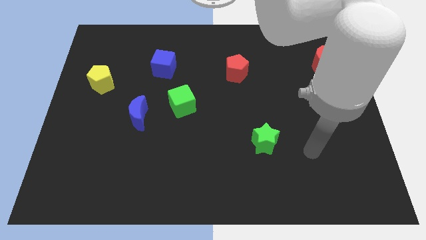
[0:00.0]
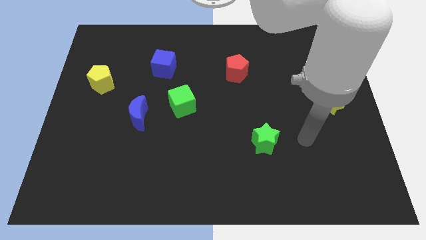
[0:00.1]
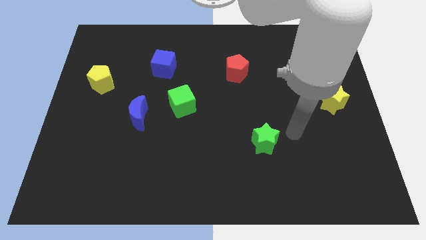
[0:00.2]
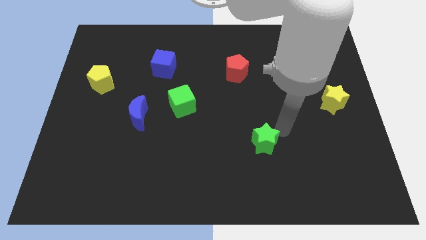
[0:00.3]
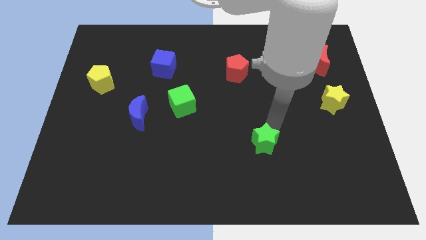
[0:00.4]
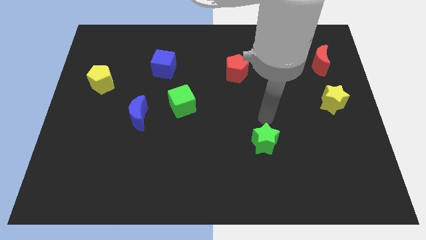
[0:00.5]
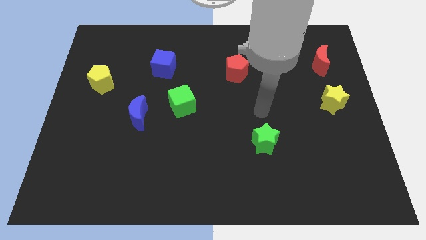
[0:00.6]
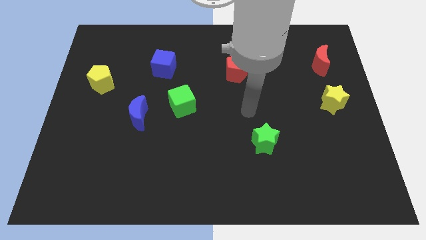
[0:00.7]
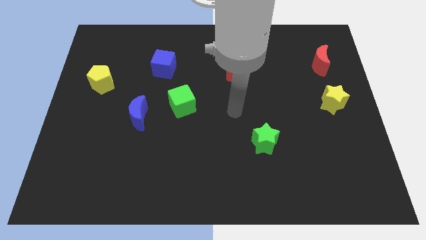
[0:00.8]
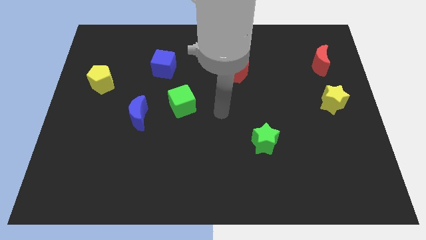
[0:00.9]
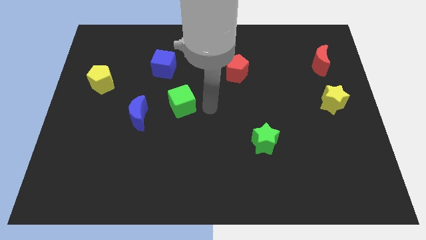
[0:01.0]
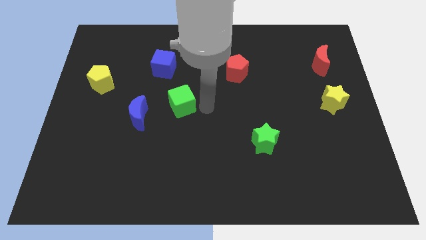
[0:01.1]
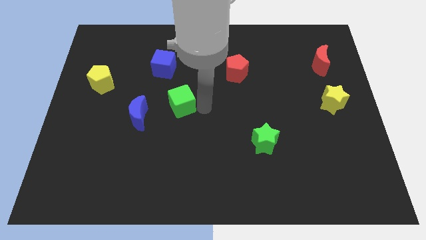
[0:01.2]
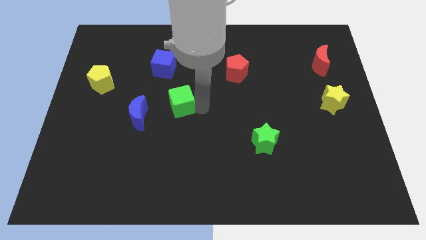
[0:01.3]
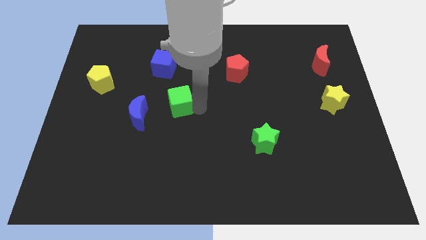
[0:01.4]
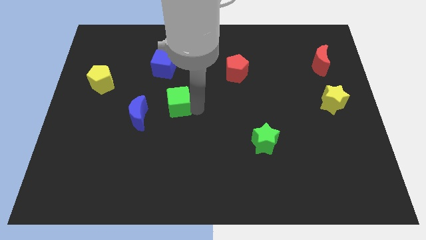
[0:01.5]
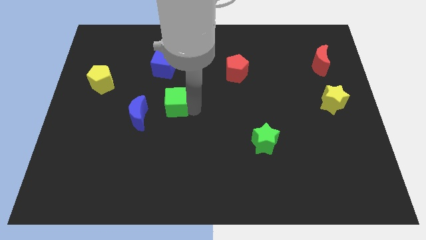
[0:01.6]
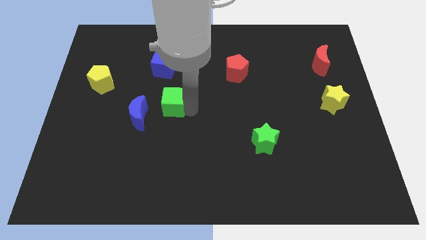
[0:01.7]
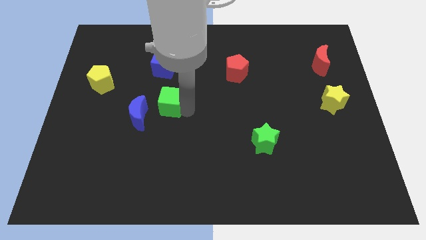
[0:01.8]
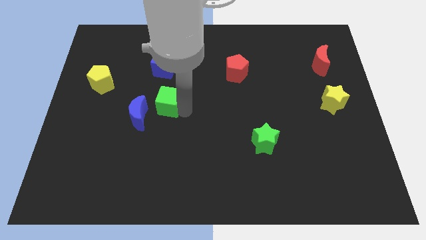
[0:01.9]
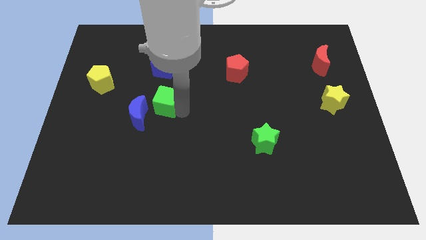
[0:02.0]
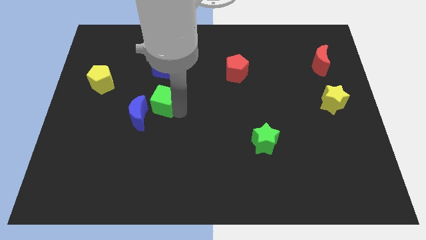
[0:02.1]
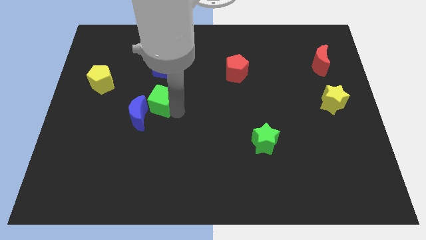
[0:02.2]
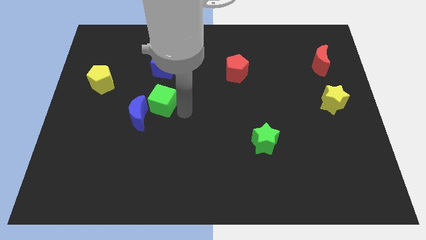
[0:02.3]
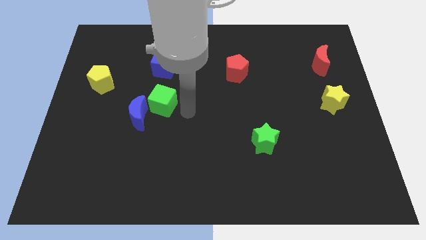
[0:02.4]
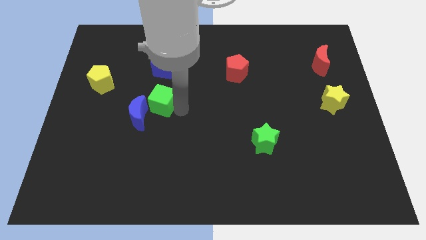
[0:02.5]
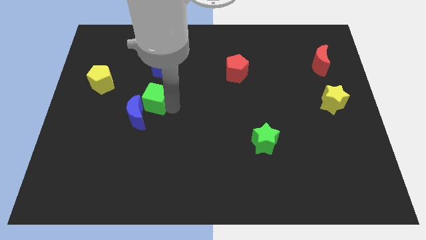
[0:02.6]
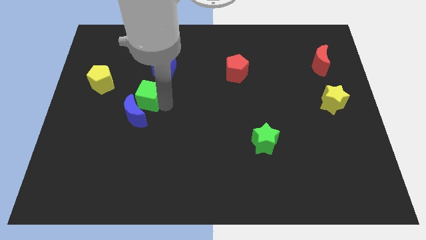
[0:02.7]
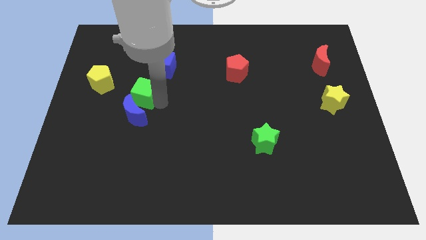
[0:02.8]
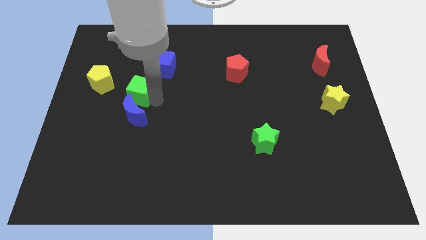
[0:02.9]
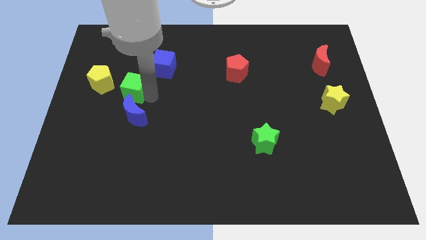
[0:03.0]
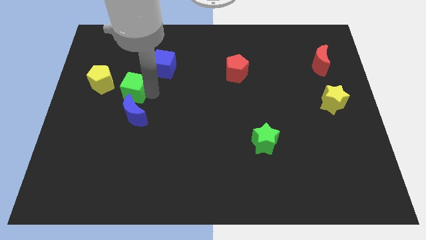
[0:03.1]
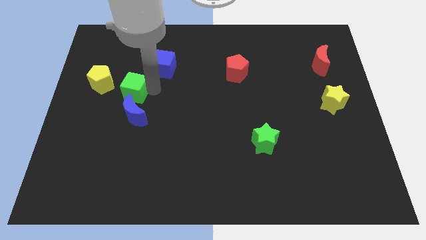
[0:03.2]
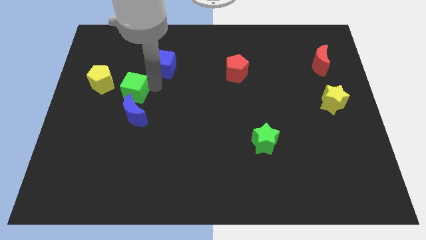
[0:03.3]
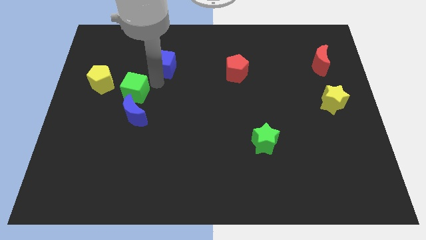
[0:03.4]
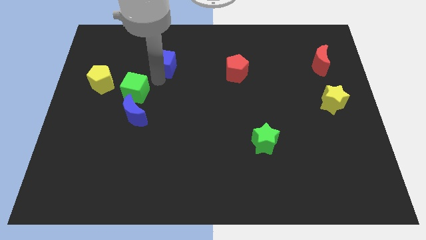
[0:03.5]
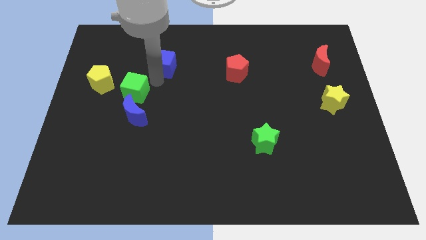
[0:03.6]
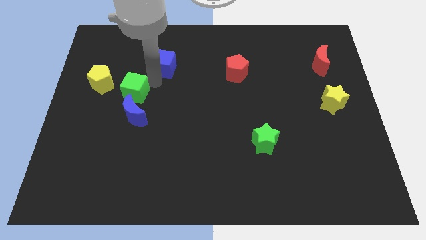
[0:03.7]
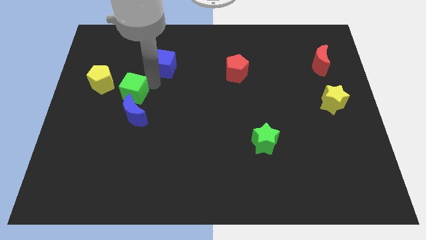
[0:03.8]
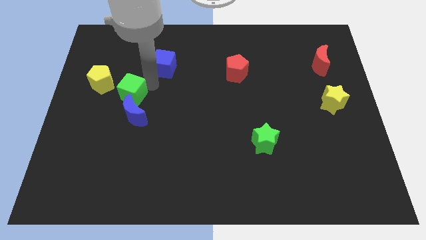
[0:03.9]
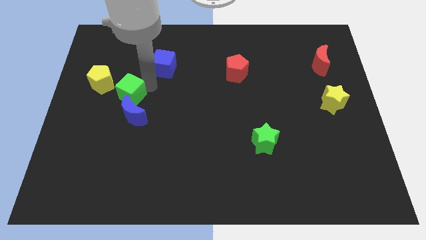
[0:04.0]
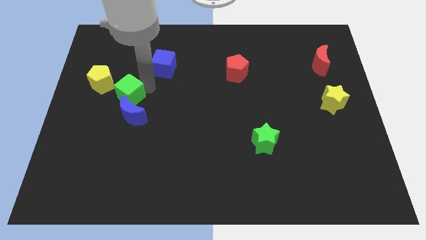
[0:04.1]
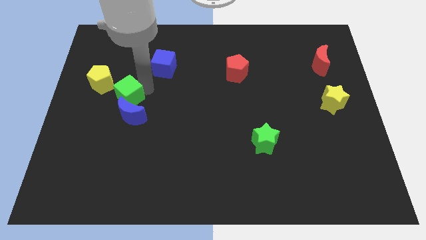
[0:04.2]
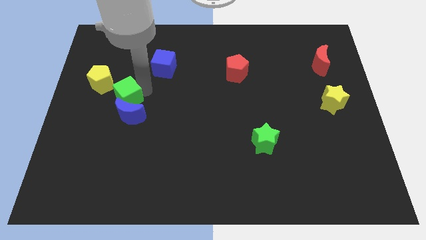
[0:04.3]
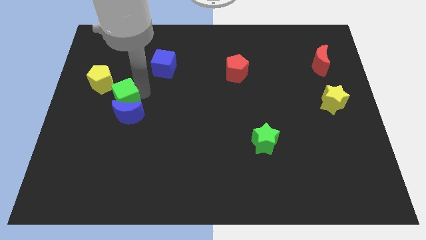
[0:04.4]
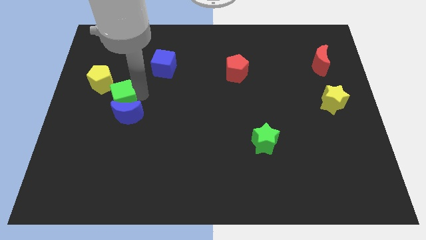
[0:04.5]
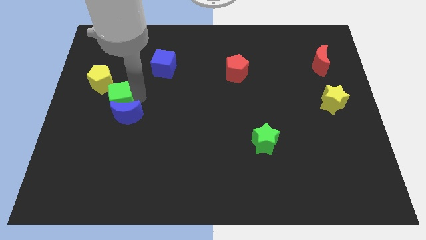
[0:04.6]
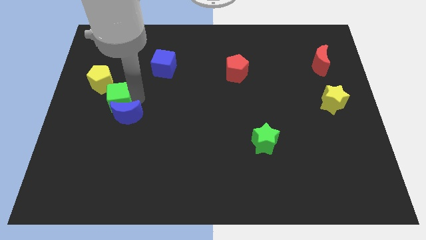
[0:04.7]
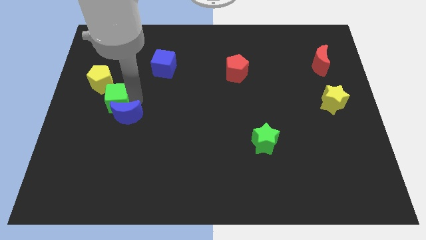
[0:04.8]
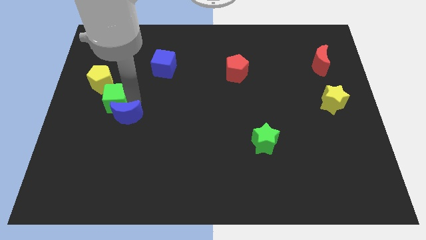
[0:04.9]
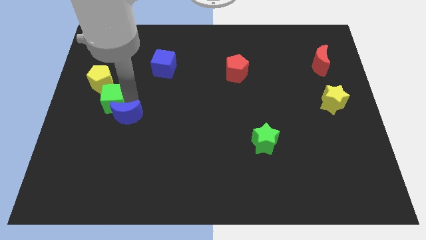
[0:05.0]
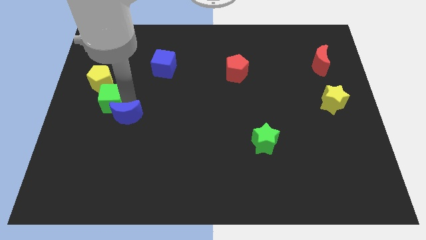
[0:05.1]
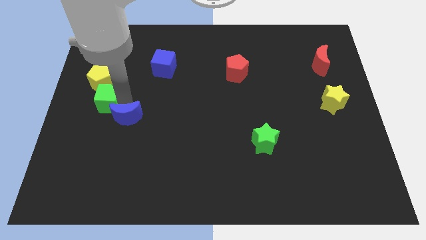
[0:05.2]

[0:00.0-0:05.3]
move the green cube to the center left
